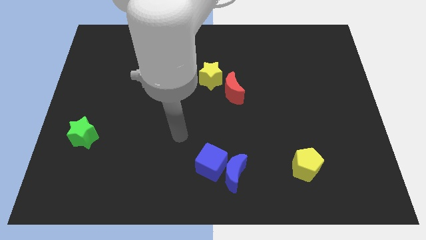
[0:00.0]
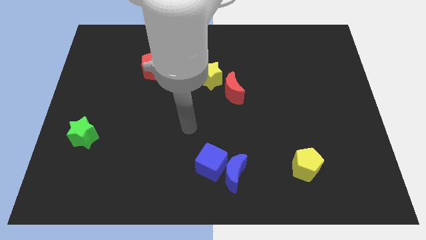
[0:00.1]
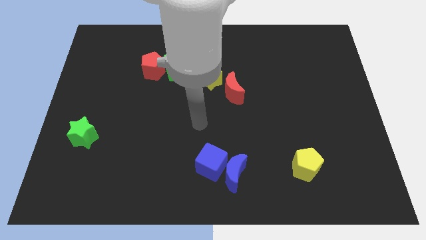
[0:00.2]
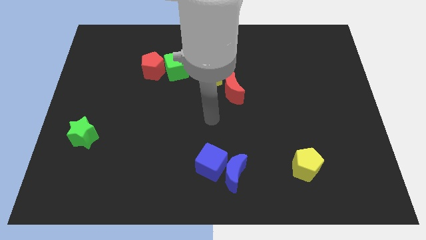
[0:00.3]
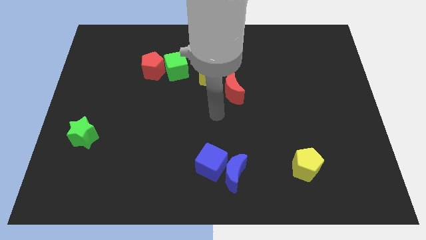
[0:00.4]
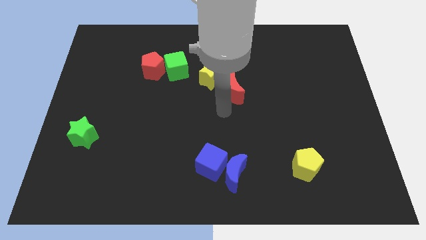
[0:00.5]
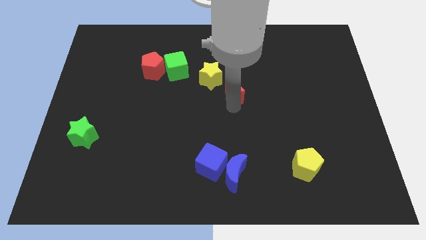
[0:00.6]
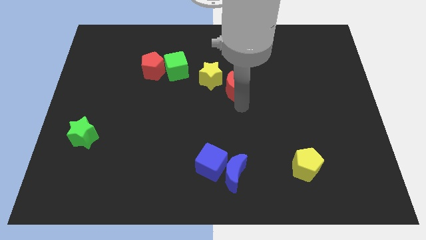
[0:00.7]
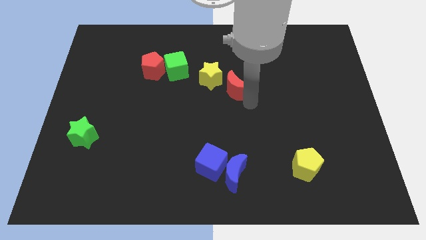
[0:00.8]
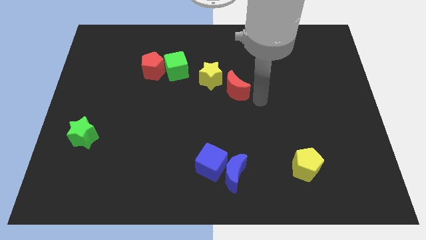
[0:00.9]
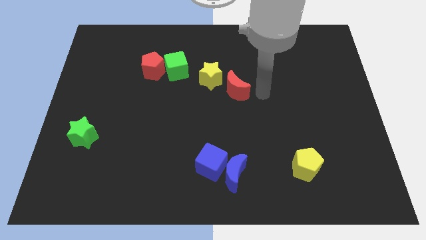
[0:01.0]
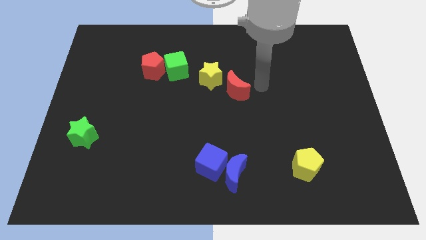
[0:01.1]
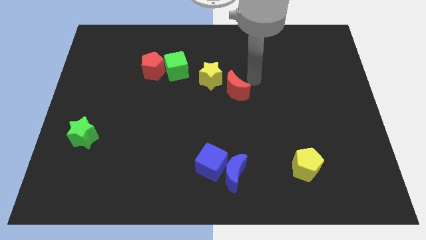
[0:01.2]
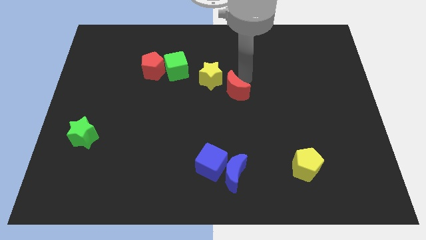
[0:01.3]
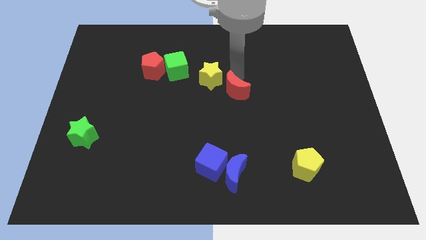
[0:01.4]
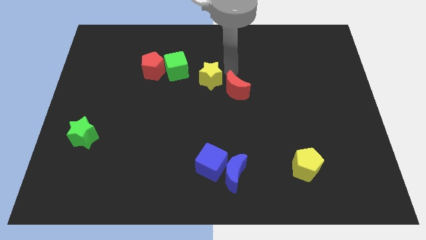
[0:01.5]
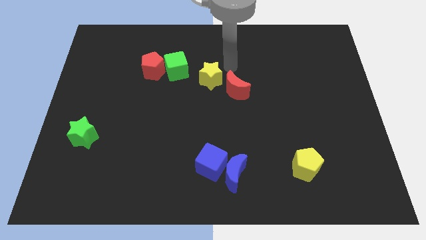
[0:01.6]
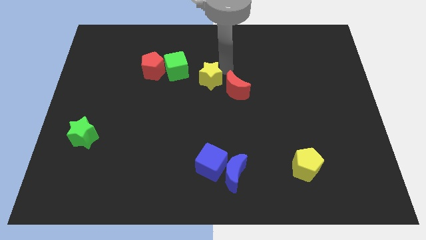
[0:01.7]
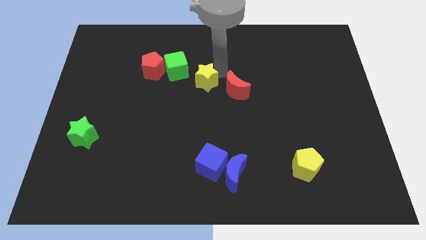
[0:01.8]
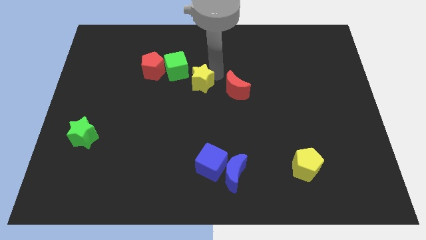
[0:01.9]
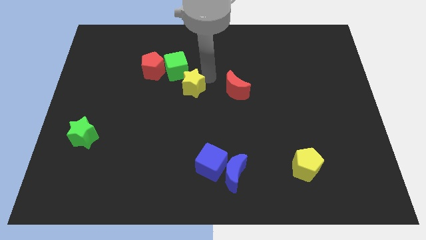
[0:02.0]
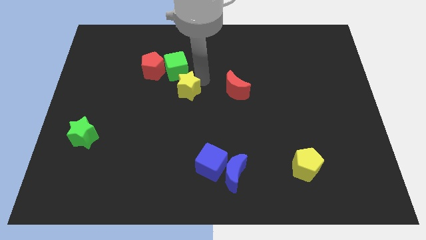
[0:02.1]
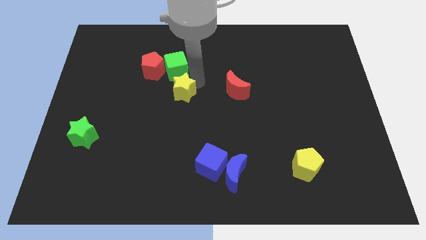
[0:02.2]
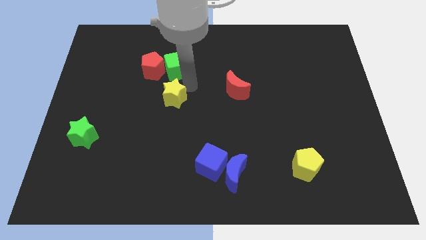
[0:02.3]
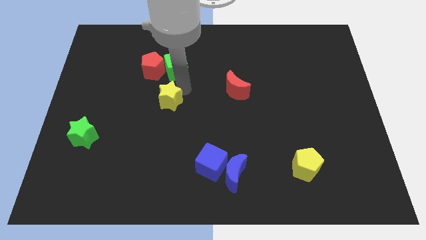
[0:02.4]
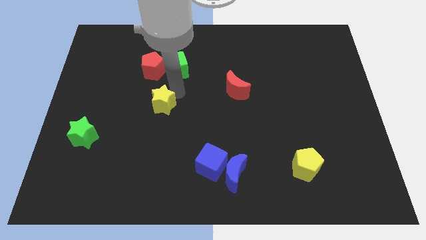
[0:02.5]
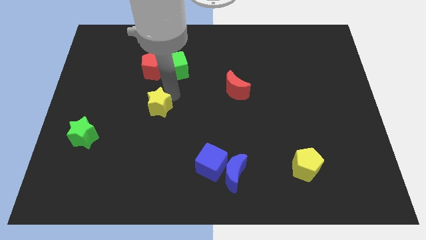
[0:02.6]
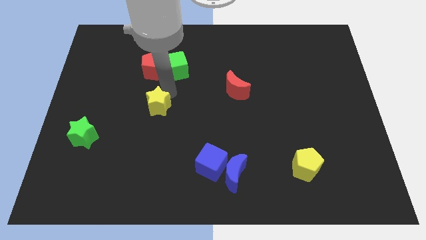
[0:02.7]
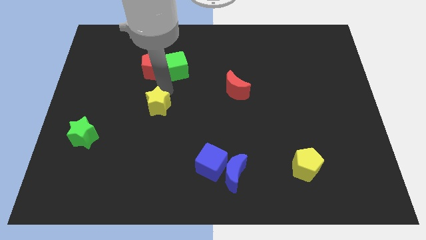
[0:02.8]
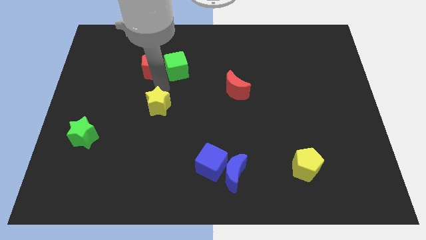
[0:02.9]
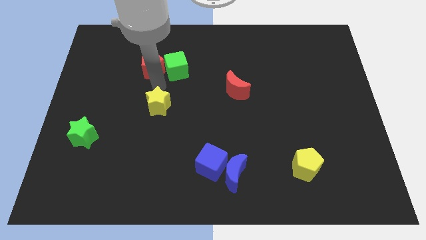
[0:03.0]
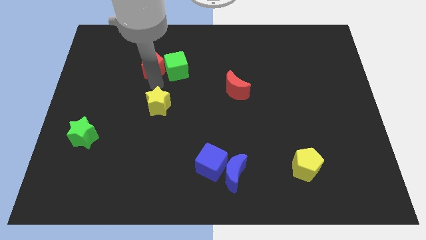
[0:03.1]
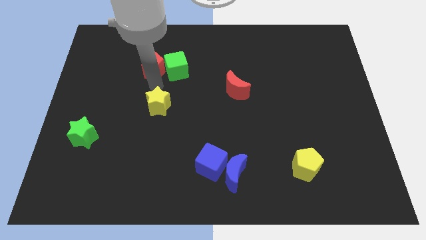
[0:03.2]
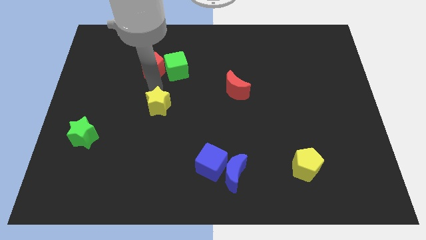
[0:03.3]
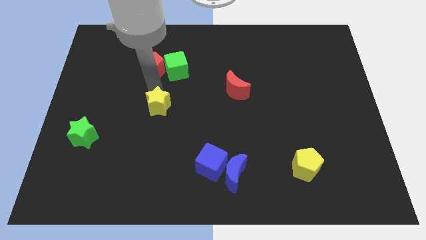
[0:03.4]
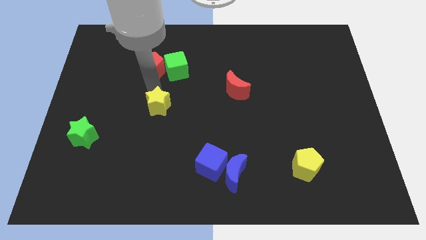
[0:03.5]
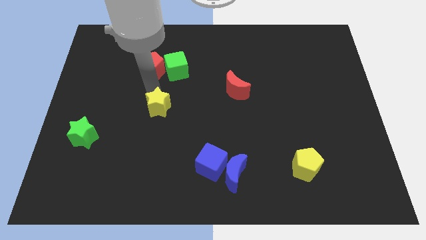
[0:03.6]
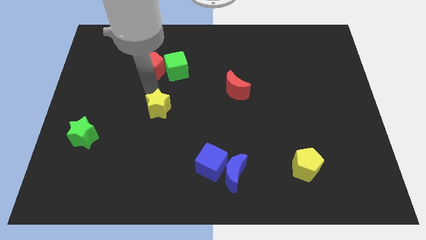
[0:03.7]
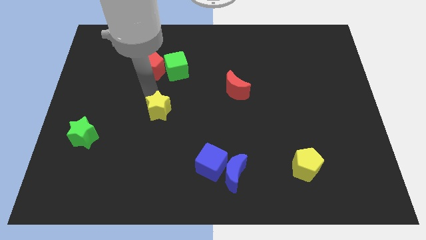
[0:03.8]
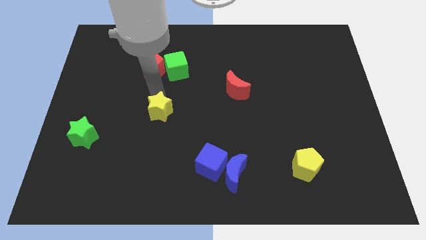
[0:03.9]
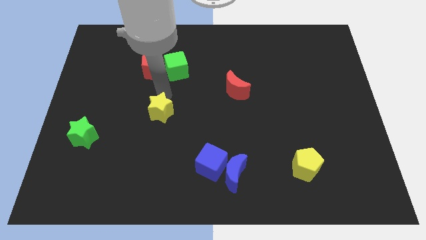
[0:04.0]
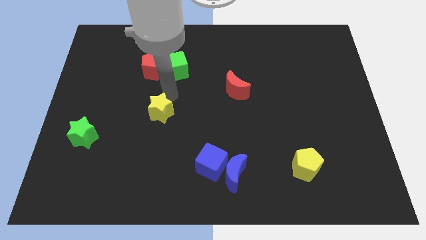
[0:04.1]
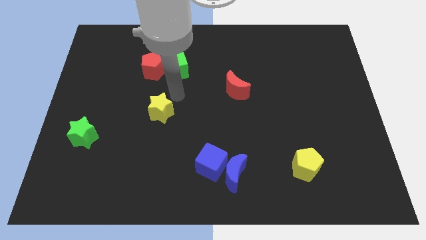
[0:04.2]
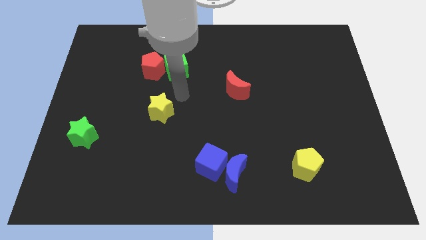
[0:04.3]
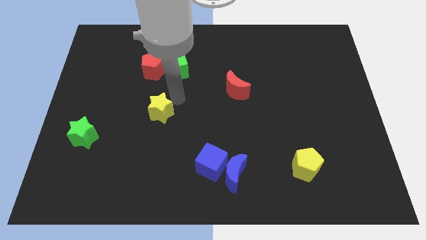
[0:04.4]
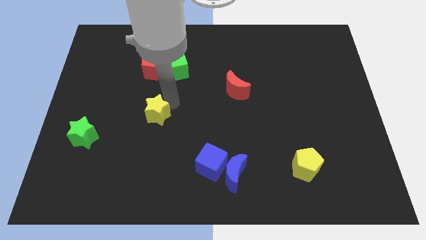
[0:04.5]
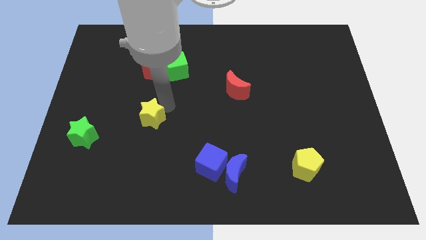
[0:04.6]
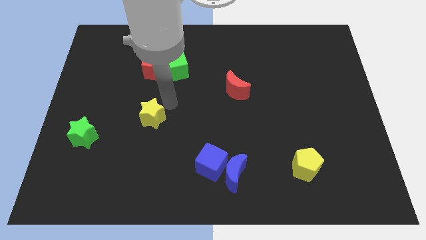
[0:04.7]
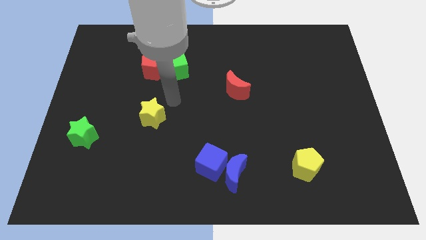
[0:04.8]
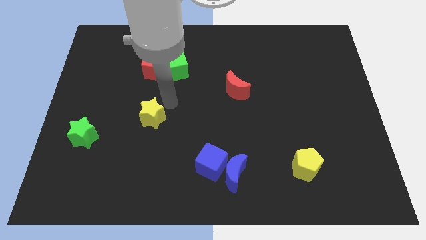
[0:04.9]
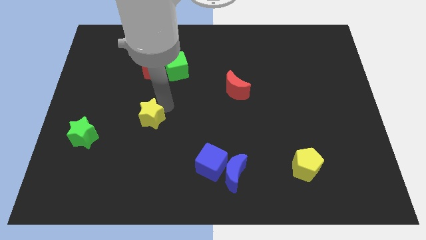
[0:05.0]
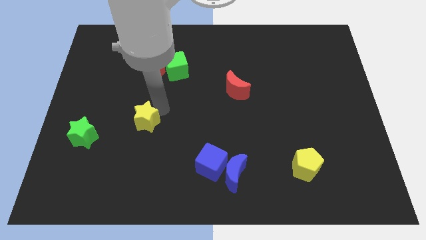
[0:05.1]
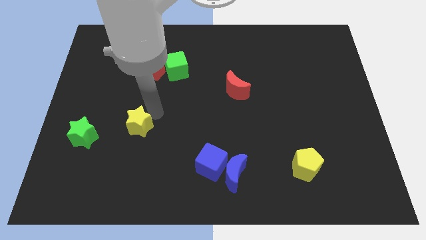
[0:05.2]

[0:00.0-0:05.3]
slide the yellow star downwards and left

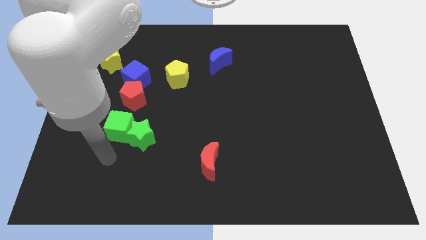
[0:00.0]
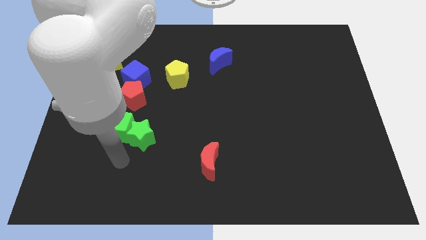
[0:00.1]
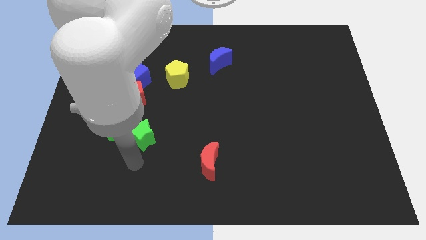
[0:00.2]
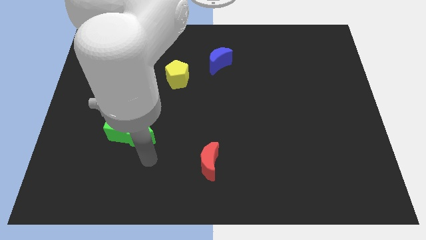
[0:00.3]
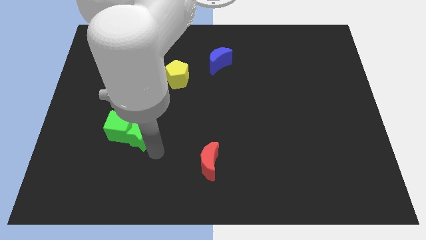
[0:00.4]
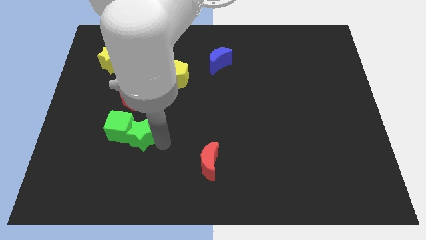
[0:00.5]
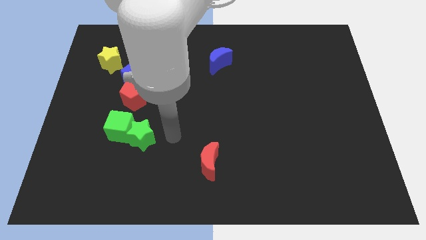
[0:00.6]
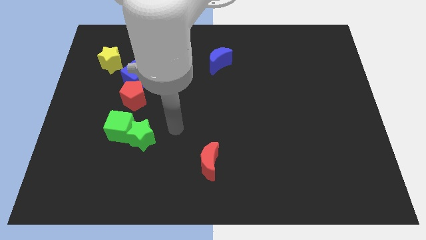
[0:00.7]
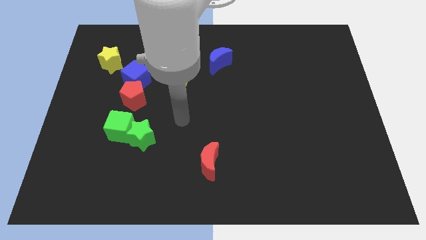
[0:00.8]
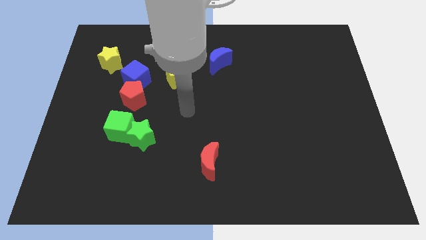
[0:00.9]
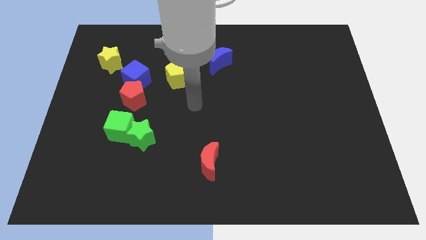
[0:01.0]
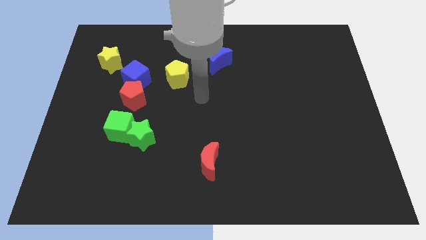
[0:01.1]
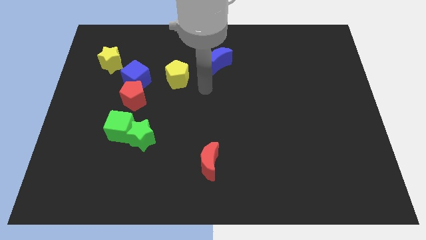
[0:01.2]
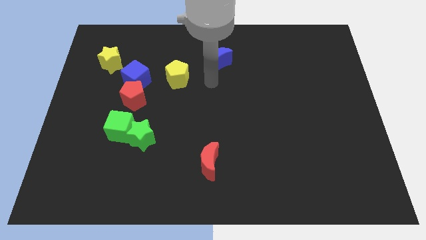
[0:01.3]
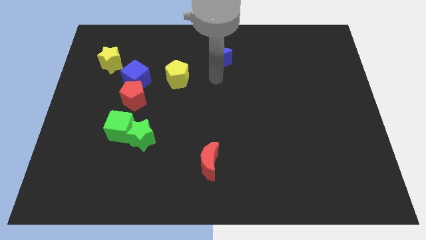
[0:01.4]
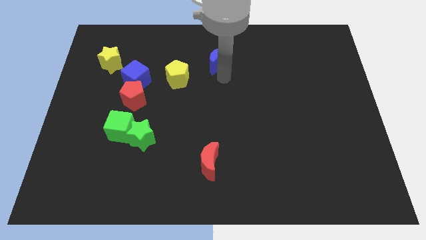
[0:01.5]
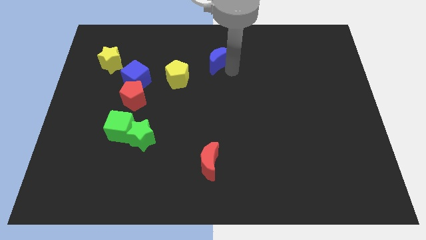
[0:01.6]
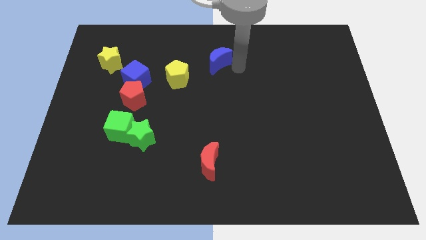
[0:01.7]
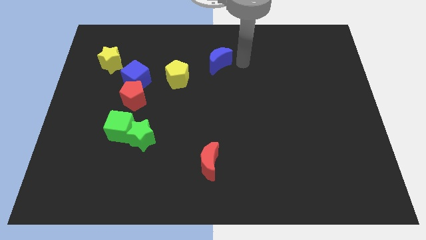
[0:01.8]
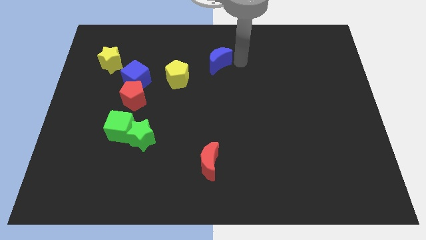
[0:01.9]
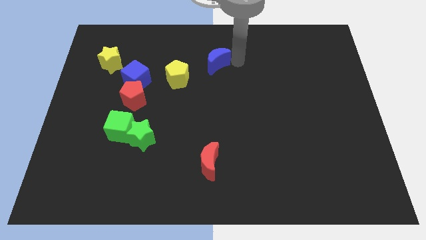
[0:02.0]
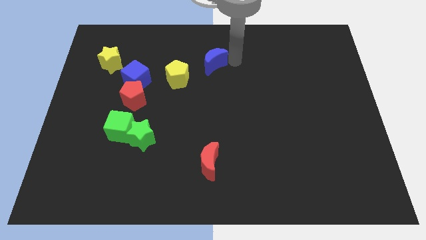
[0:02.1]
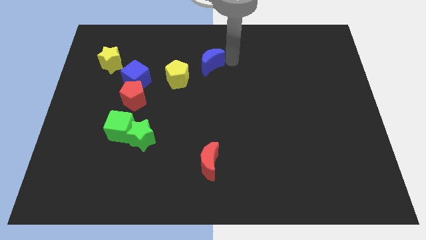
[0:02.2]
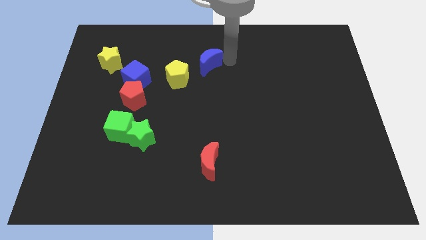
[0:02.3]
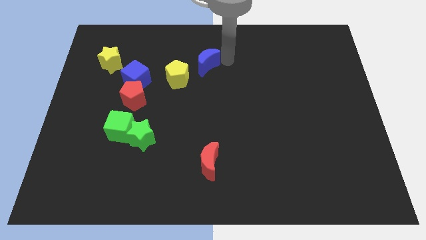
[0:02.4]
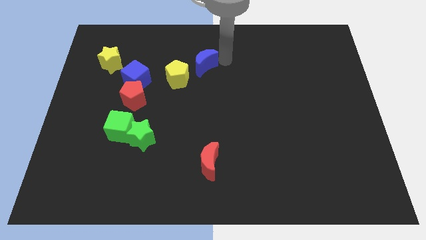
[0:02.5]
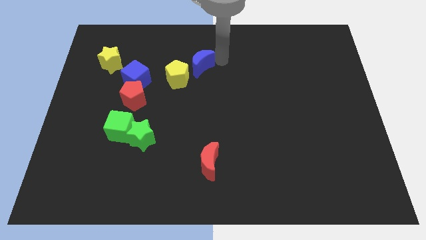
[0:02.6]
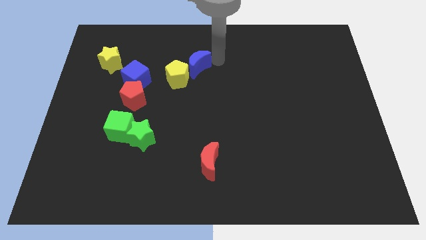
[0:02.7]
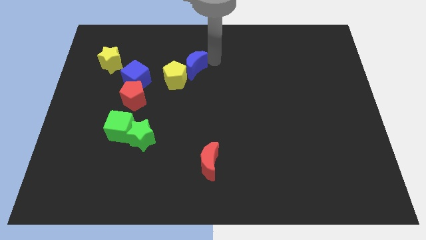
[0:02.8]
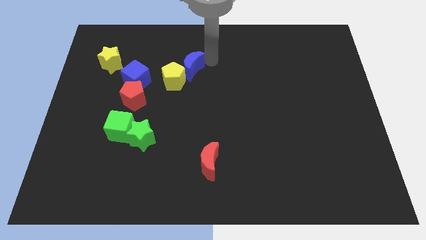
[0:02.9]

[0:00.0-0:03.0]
slightly slide the blue moon left
